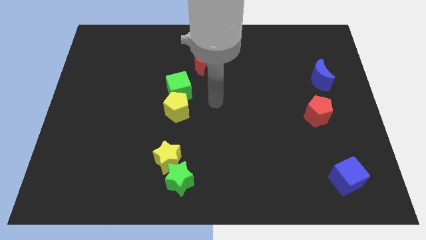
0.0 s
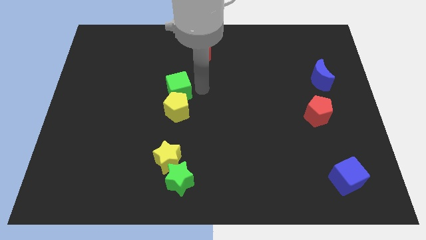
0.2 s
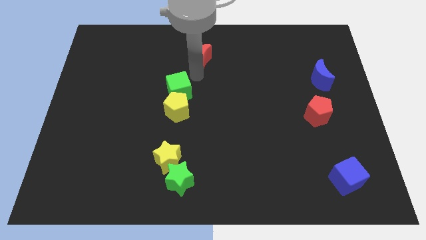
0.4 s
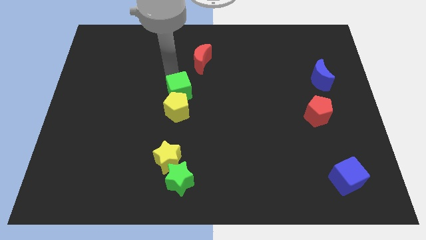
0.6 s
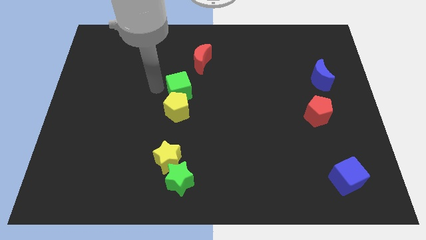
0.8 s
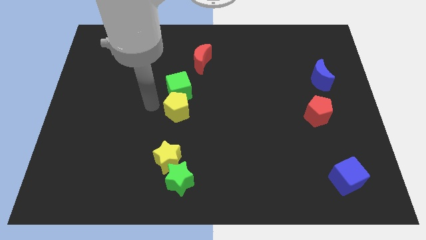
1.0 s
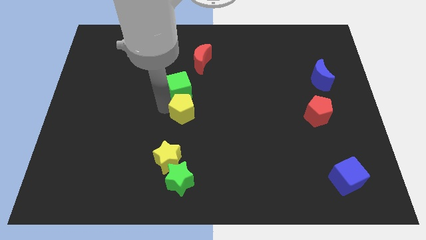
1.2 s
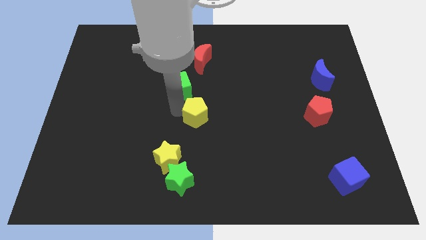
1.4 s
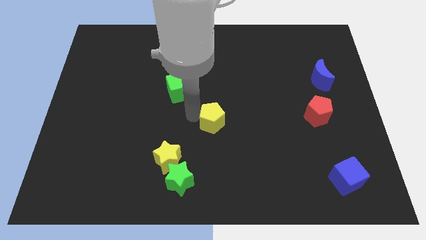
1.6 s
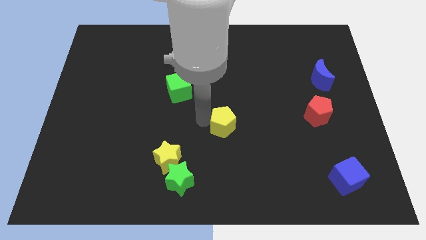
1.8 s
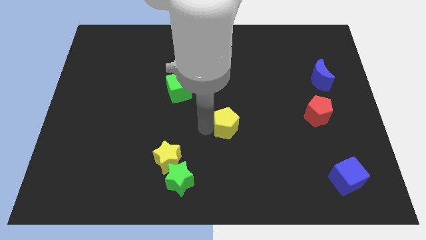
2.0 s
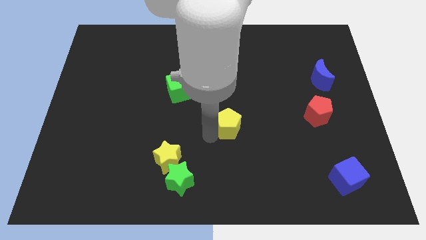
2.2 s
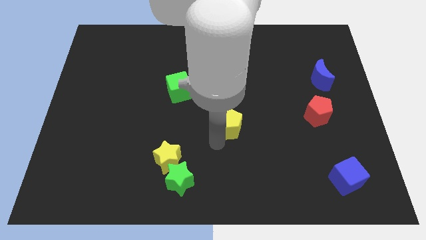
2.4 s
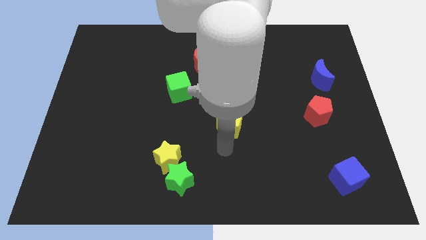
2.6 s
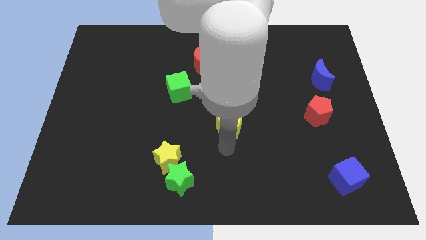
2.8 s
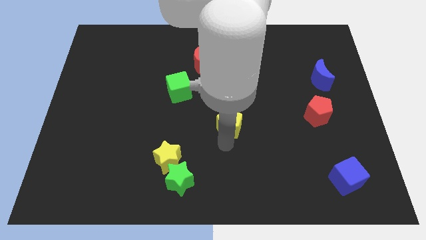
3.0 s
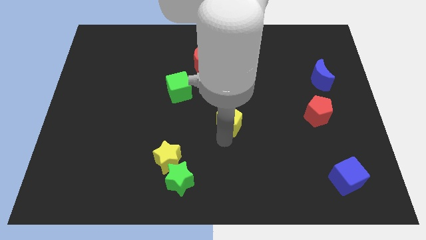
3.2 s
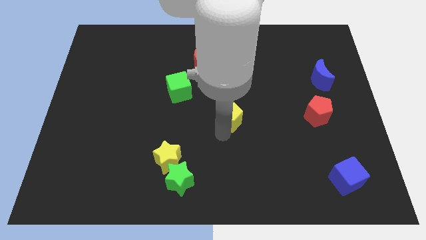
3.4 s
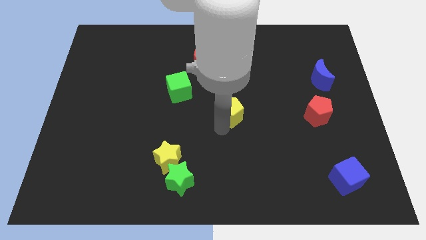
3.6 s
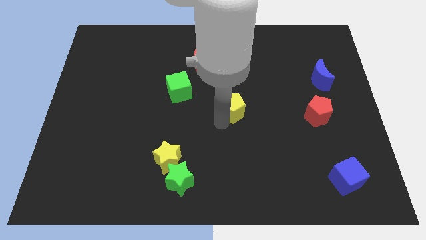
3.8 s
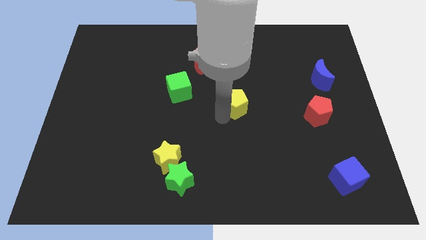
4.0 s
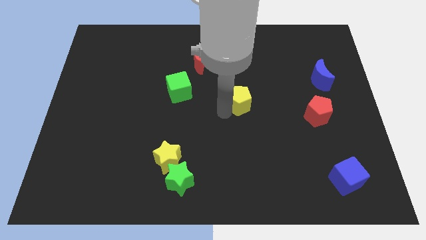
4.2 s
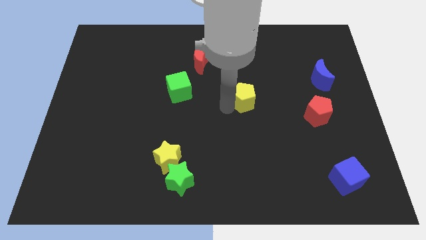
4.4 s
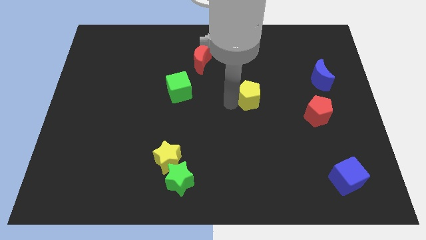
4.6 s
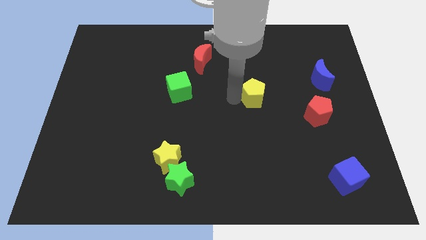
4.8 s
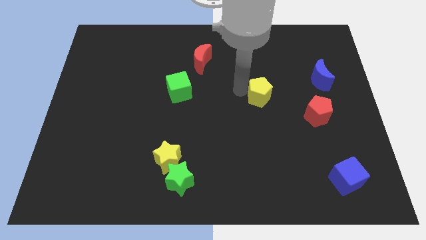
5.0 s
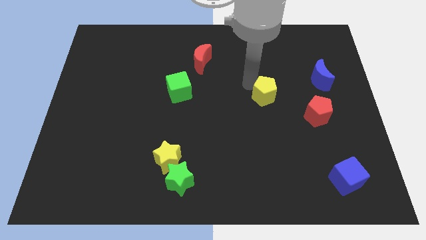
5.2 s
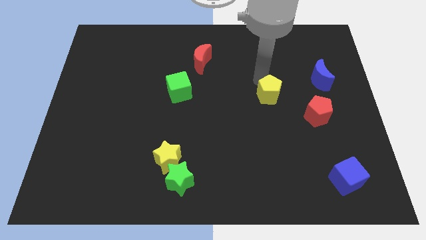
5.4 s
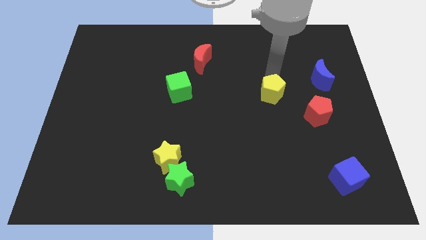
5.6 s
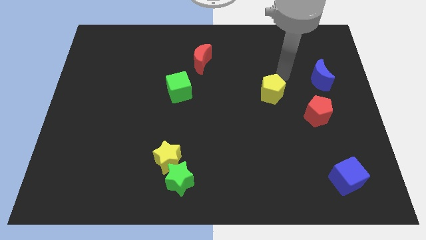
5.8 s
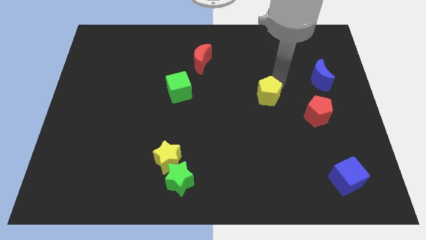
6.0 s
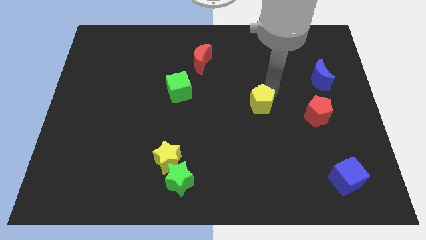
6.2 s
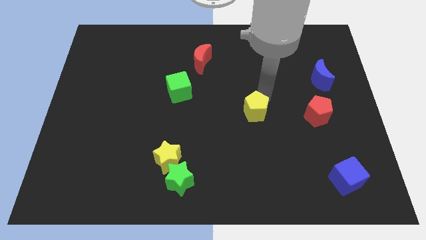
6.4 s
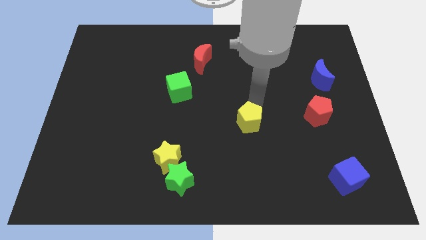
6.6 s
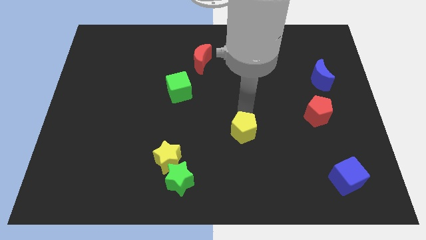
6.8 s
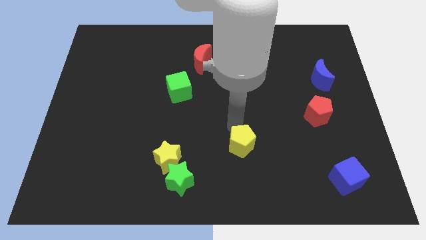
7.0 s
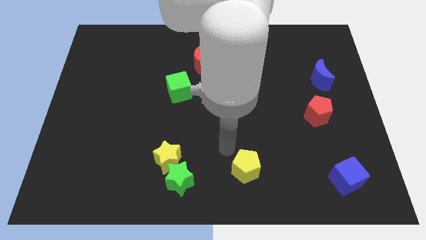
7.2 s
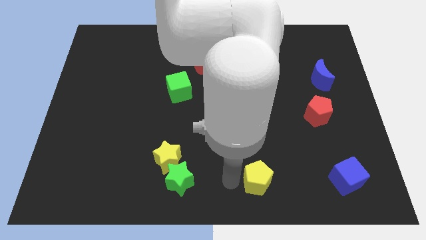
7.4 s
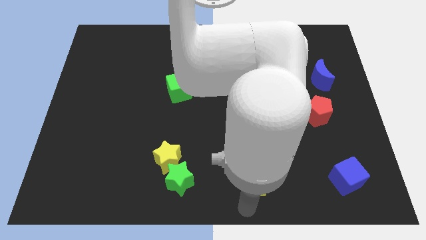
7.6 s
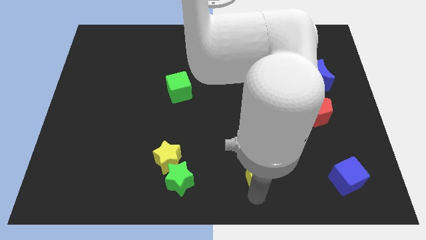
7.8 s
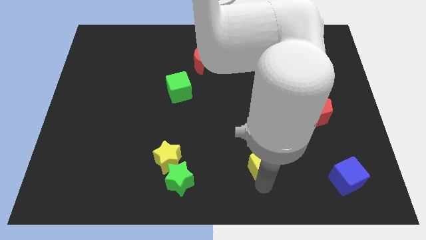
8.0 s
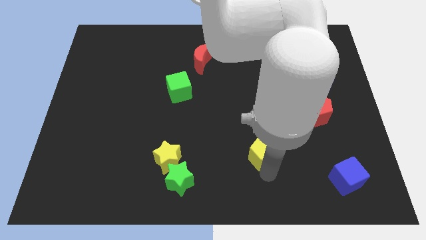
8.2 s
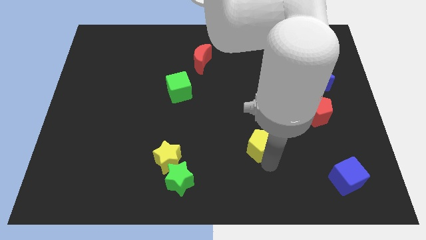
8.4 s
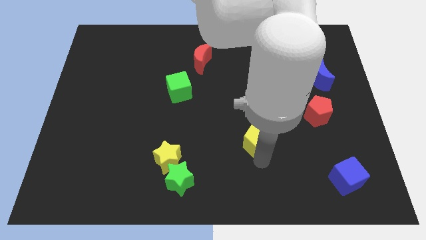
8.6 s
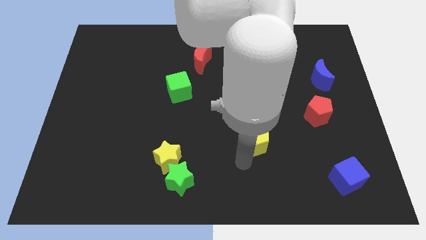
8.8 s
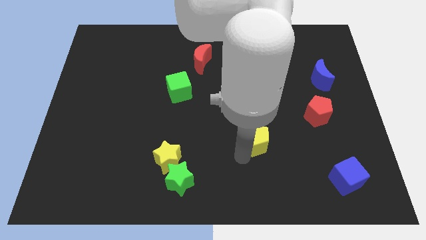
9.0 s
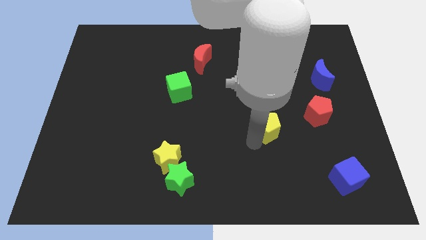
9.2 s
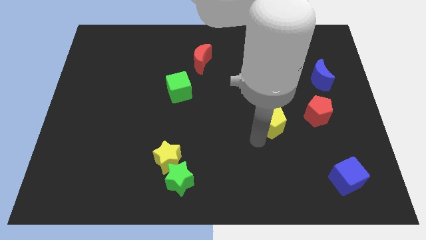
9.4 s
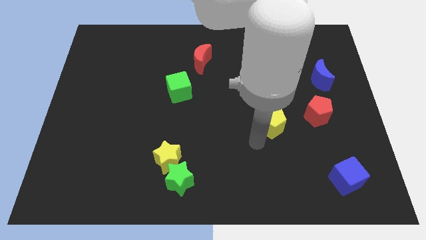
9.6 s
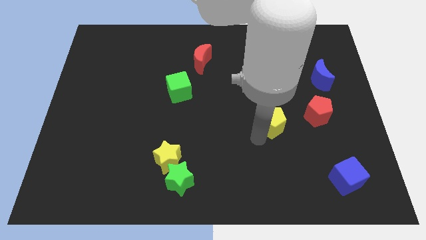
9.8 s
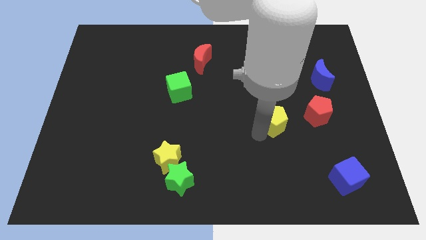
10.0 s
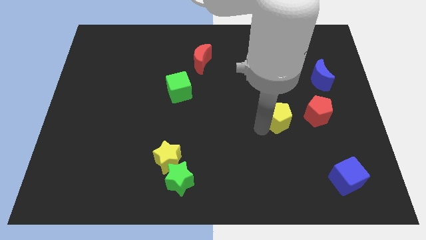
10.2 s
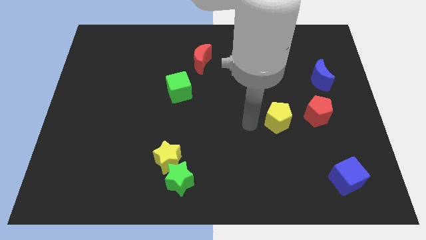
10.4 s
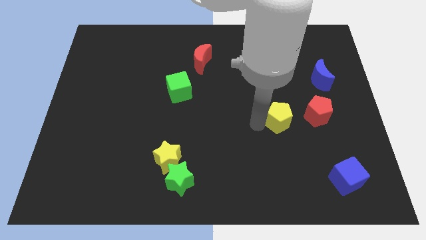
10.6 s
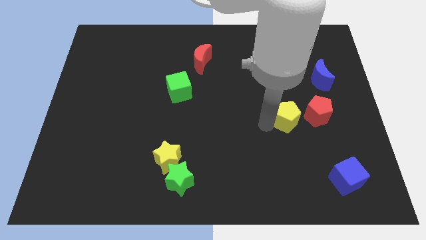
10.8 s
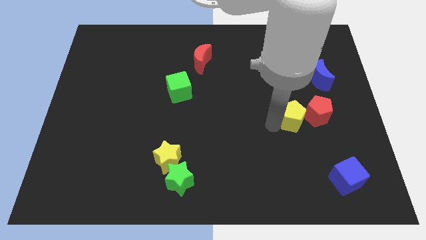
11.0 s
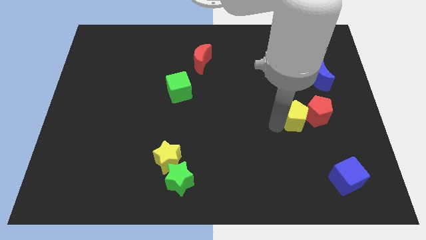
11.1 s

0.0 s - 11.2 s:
push the yellow pentagon next to the red pentagon

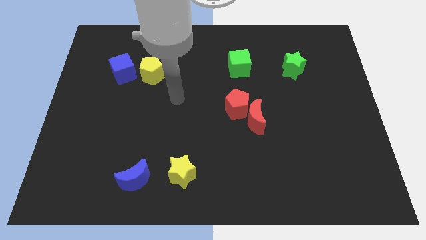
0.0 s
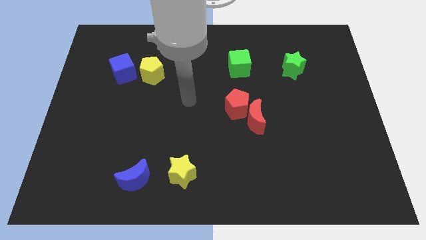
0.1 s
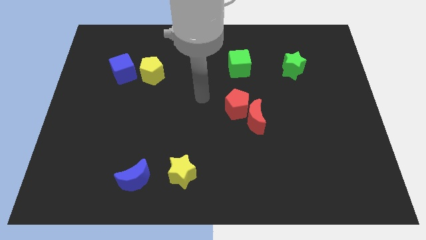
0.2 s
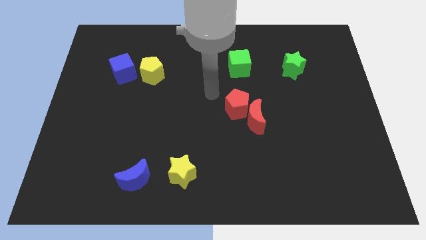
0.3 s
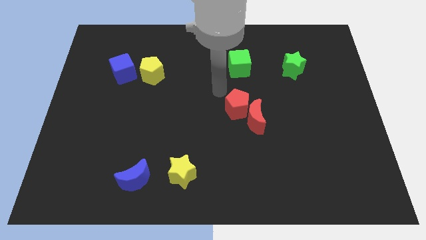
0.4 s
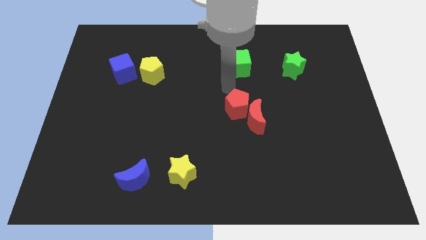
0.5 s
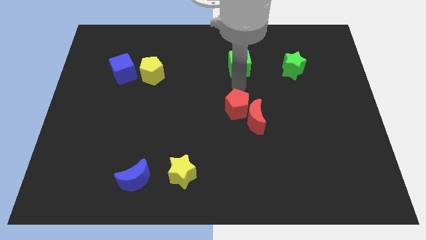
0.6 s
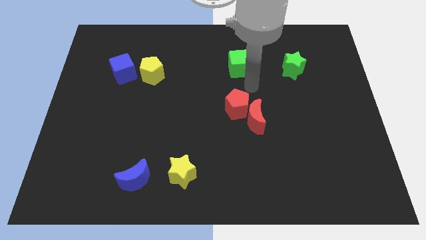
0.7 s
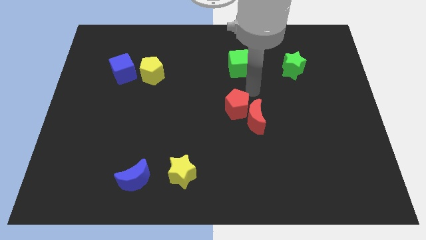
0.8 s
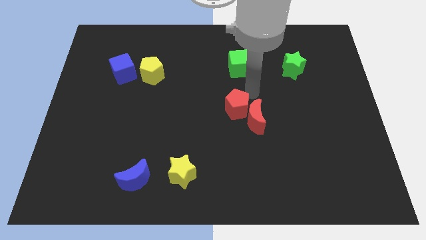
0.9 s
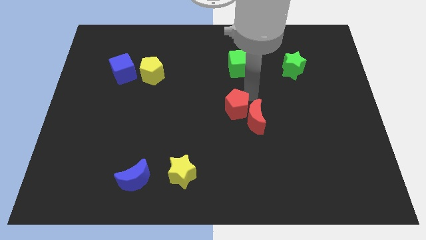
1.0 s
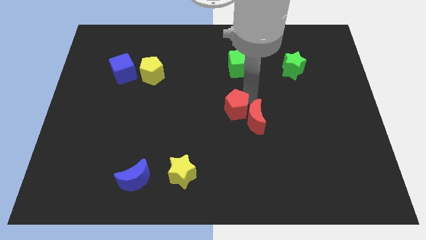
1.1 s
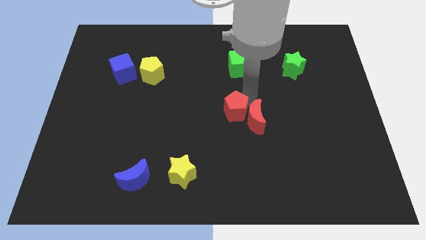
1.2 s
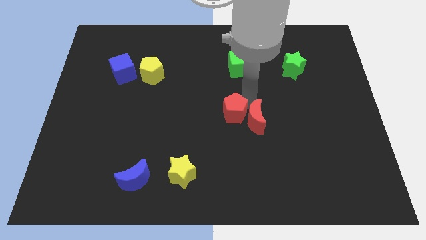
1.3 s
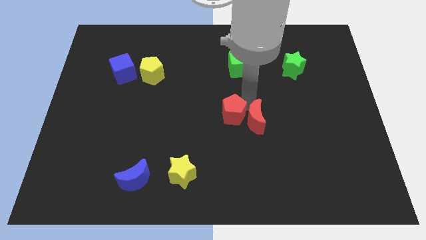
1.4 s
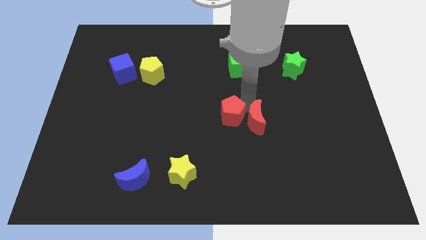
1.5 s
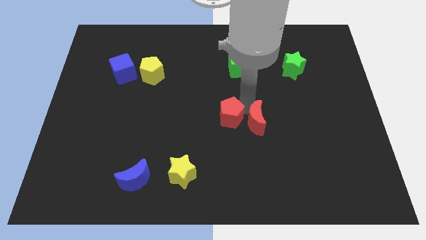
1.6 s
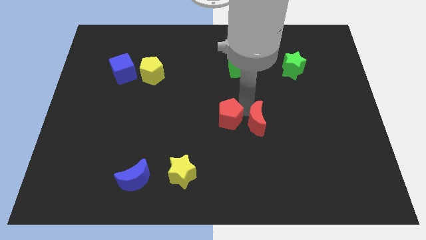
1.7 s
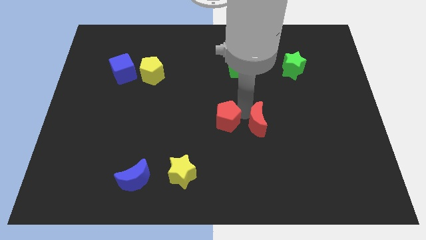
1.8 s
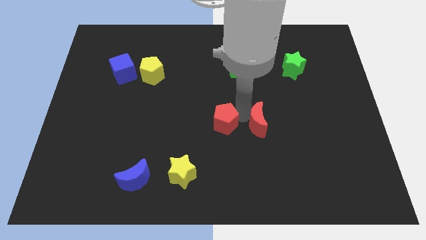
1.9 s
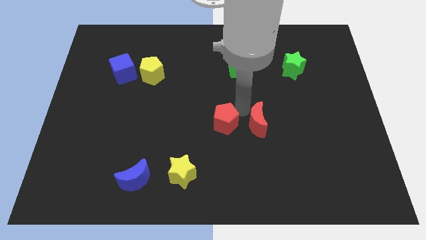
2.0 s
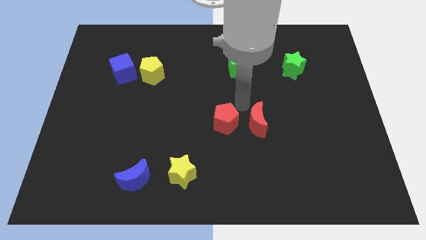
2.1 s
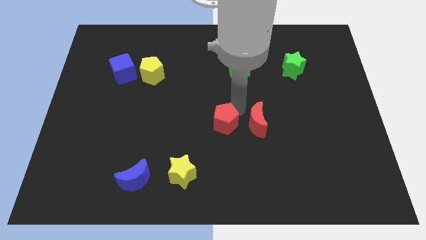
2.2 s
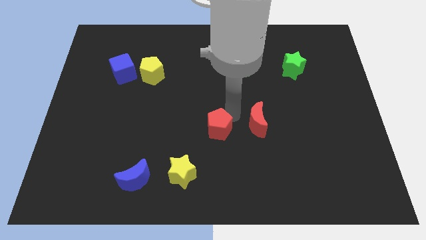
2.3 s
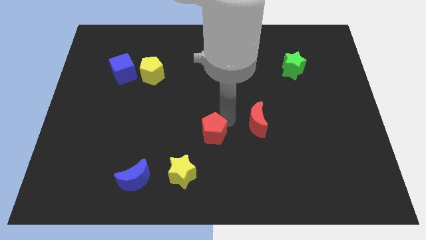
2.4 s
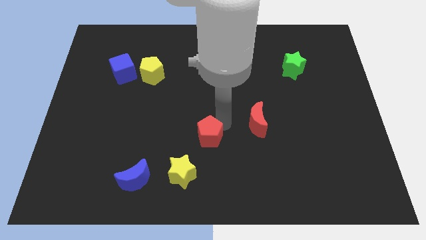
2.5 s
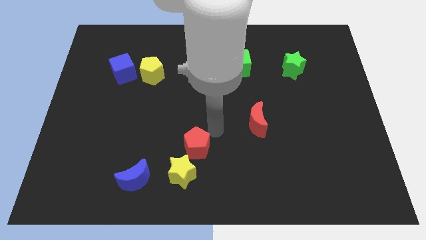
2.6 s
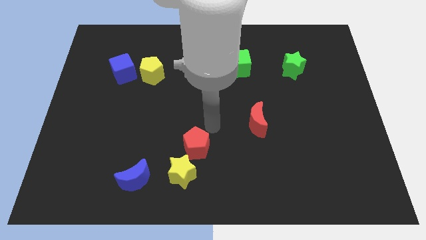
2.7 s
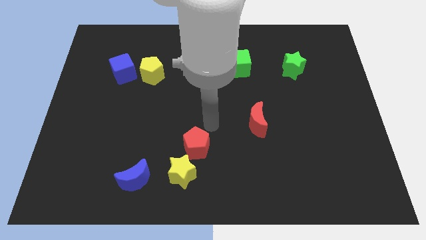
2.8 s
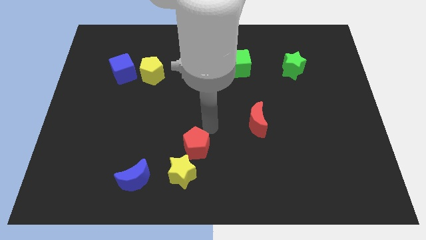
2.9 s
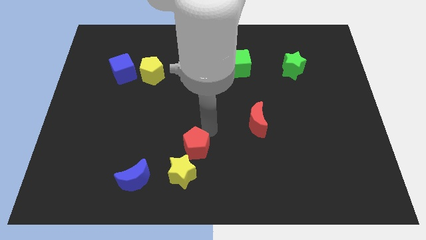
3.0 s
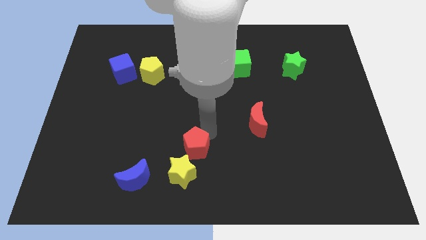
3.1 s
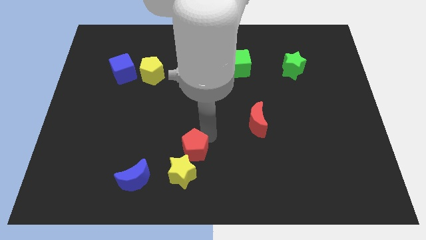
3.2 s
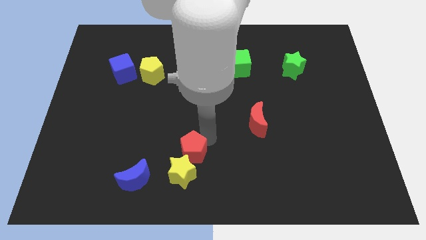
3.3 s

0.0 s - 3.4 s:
push the red pentagon to the yellow star
